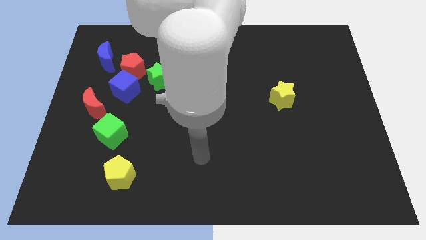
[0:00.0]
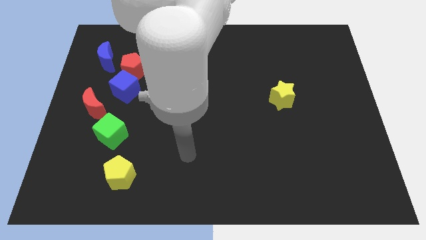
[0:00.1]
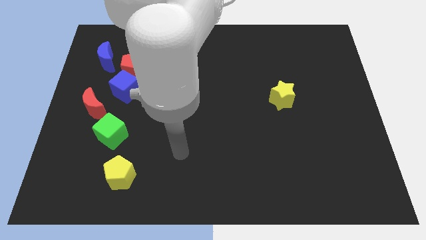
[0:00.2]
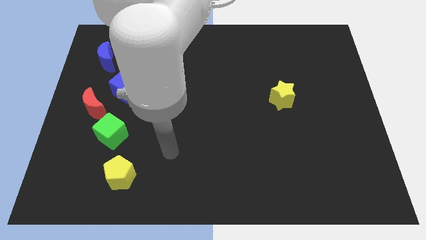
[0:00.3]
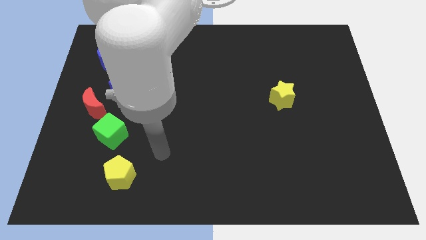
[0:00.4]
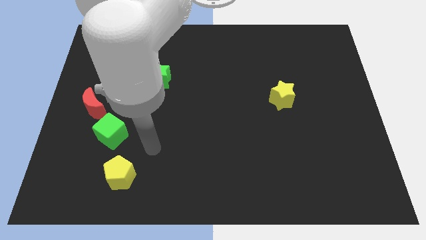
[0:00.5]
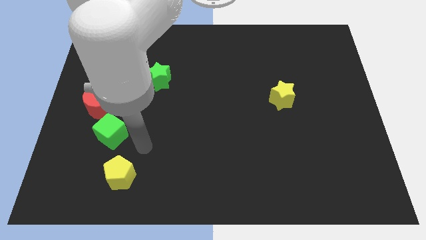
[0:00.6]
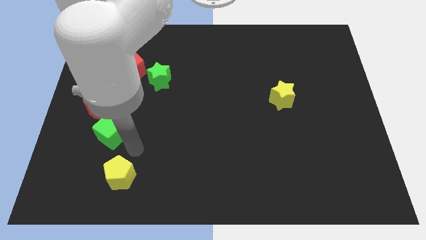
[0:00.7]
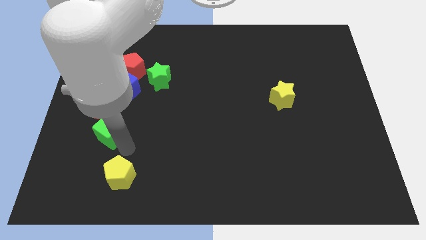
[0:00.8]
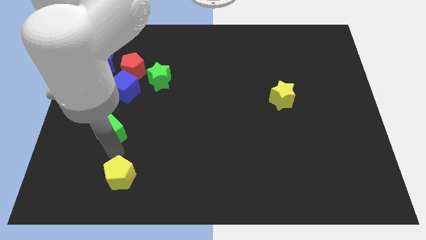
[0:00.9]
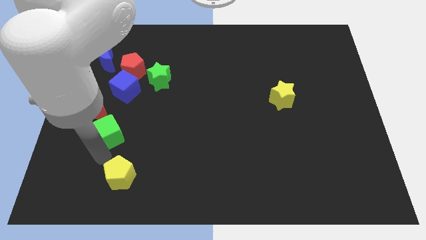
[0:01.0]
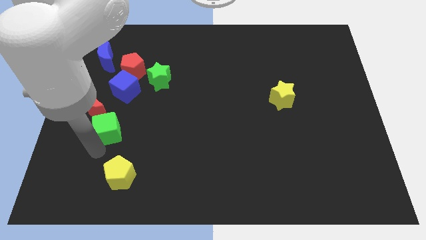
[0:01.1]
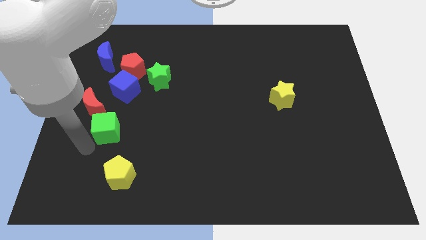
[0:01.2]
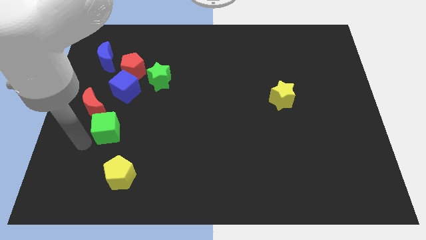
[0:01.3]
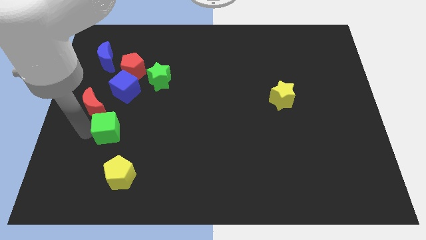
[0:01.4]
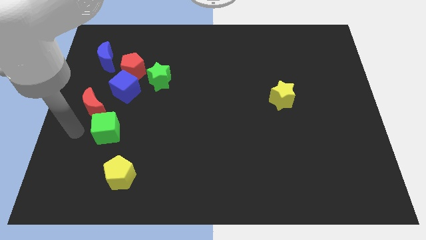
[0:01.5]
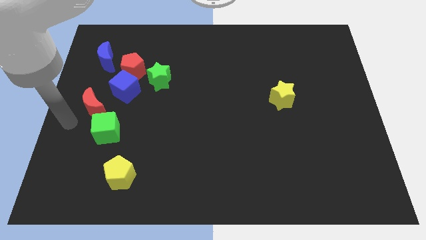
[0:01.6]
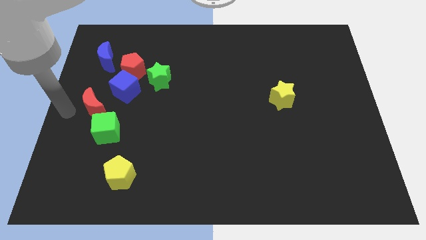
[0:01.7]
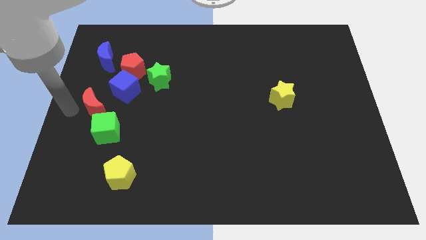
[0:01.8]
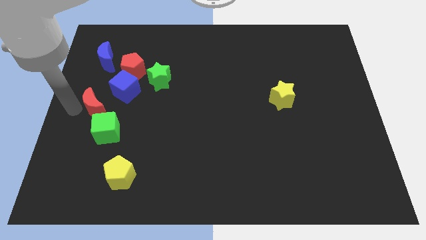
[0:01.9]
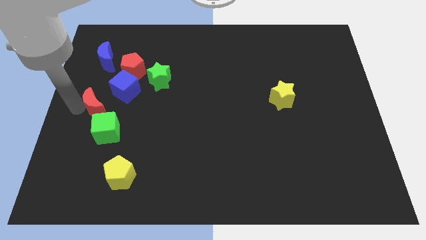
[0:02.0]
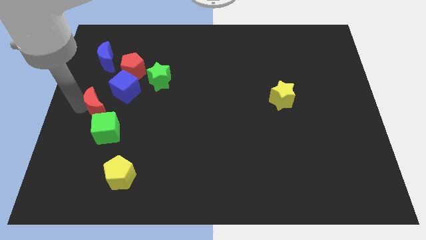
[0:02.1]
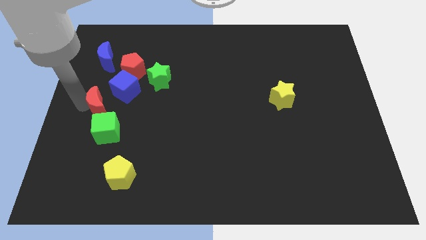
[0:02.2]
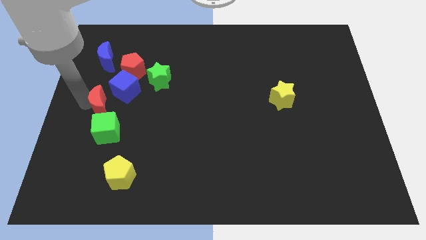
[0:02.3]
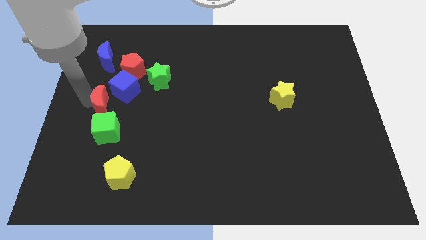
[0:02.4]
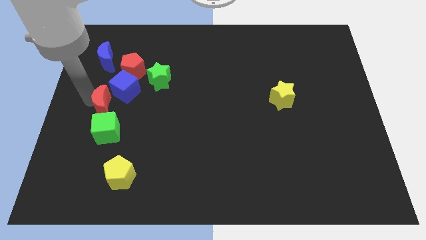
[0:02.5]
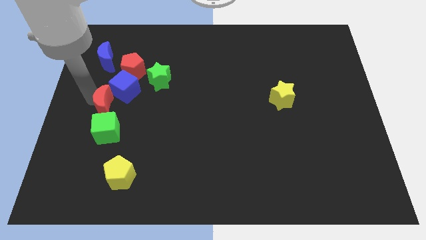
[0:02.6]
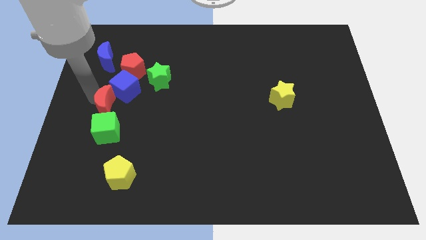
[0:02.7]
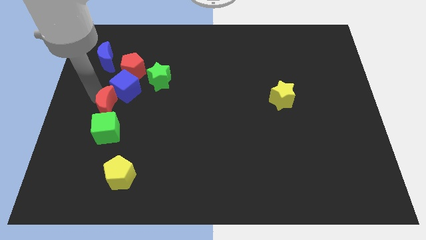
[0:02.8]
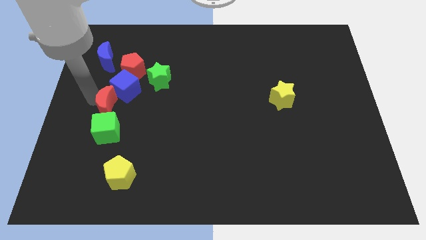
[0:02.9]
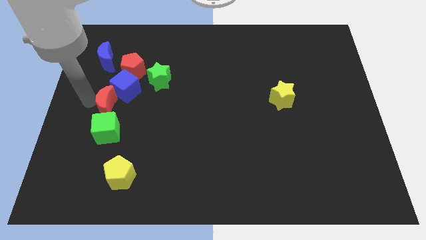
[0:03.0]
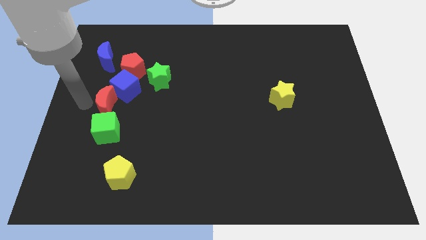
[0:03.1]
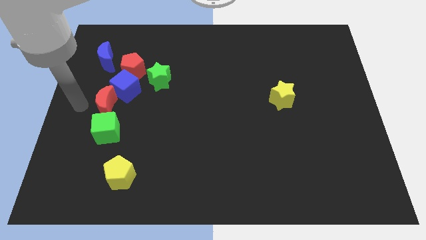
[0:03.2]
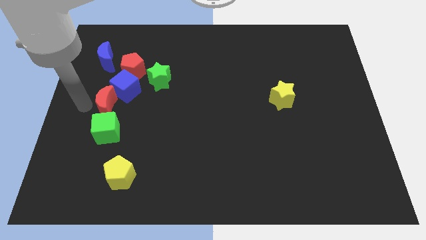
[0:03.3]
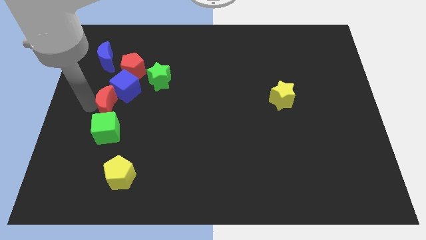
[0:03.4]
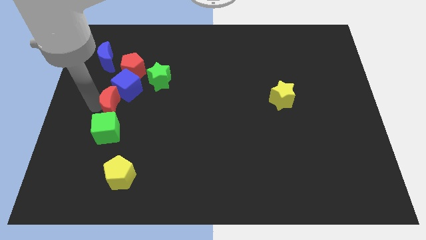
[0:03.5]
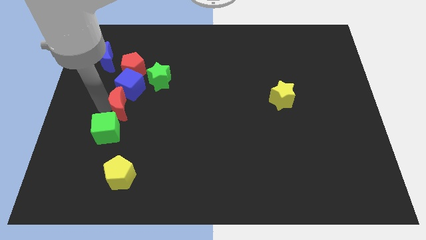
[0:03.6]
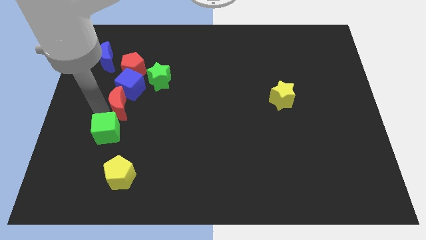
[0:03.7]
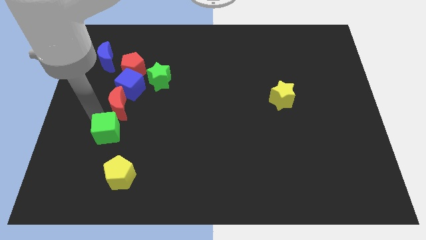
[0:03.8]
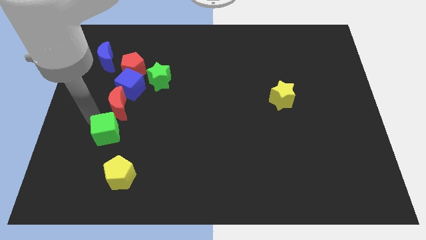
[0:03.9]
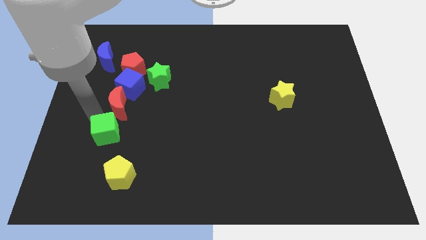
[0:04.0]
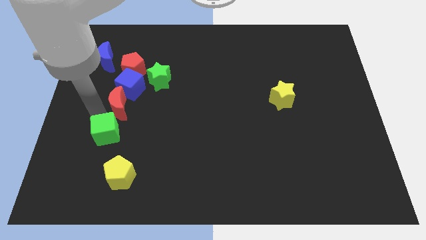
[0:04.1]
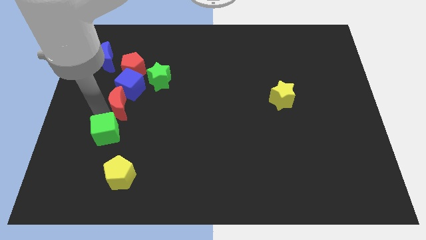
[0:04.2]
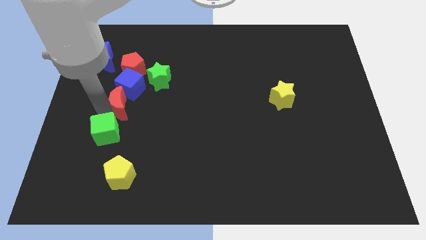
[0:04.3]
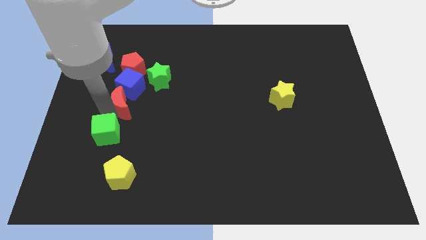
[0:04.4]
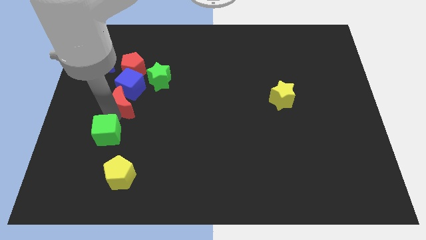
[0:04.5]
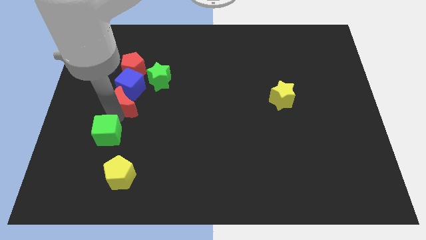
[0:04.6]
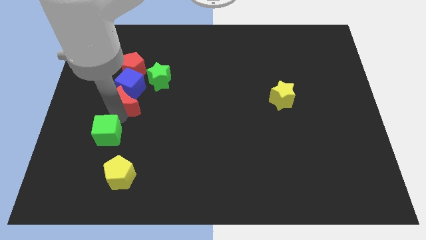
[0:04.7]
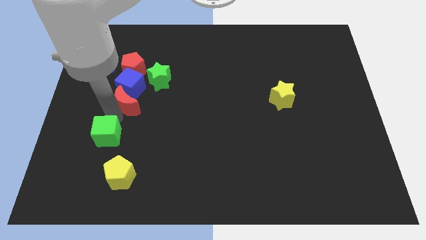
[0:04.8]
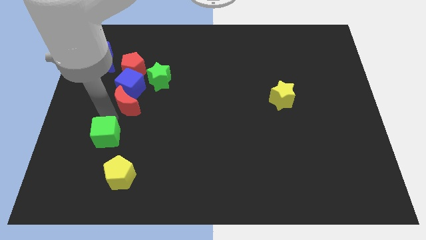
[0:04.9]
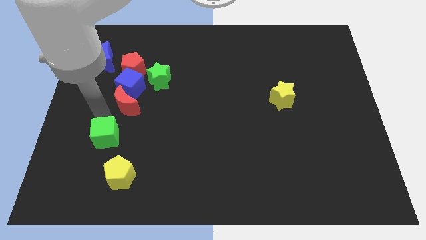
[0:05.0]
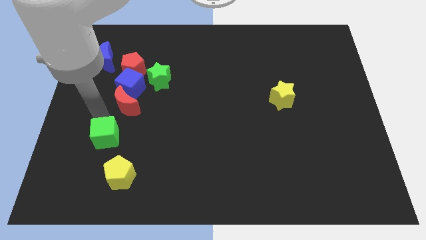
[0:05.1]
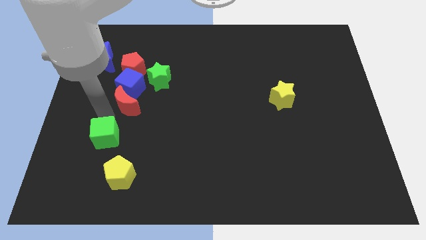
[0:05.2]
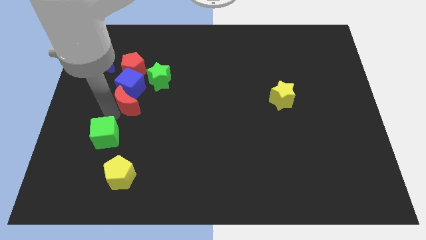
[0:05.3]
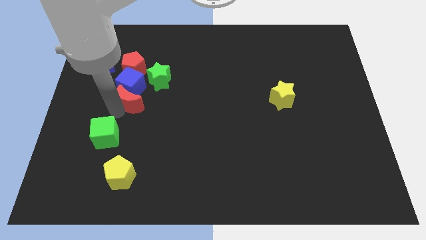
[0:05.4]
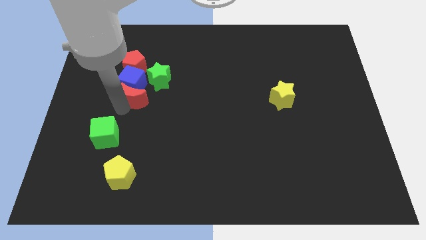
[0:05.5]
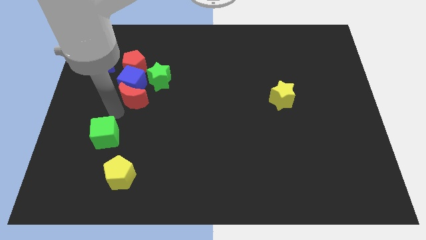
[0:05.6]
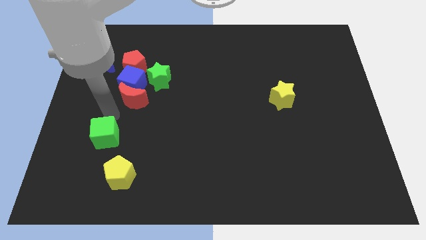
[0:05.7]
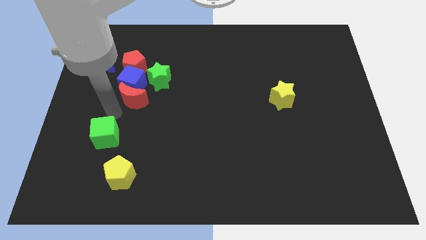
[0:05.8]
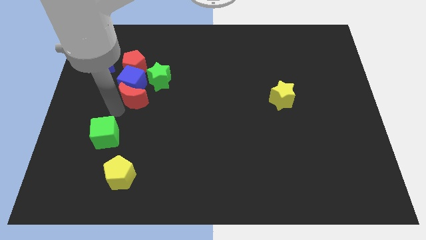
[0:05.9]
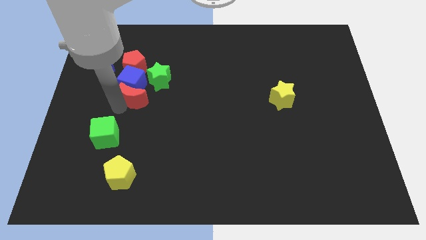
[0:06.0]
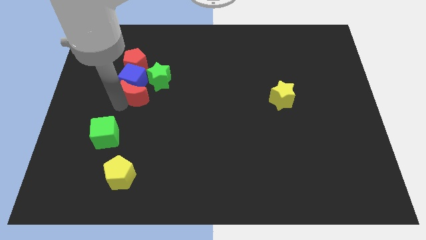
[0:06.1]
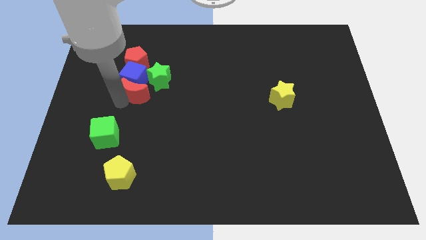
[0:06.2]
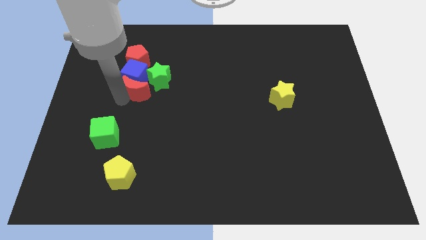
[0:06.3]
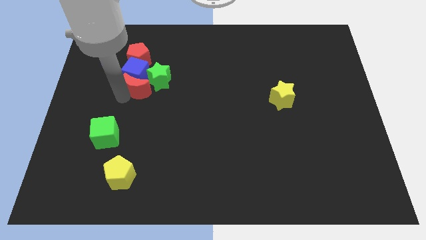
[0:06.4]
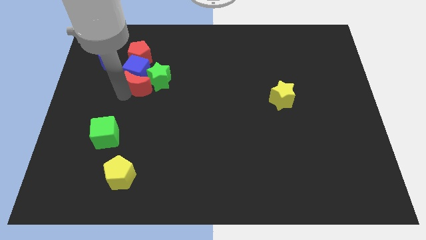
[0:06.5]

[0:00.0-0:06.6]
move the red moon to the green star

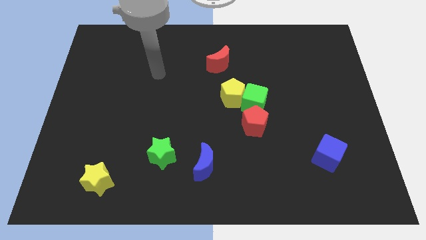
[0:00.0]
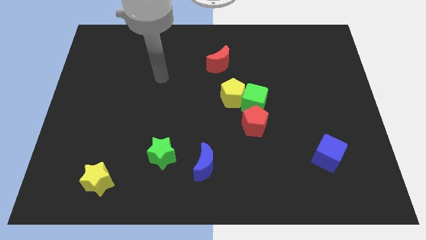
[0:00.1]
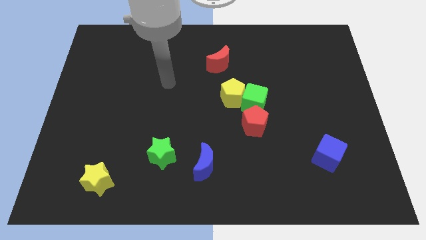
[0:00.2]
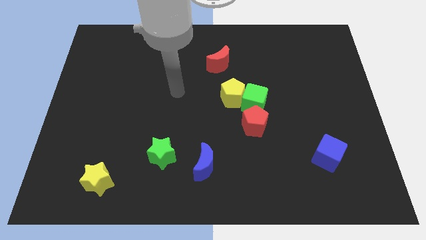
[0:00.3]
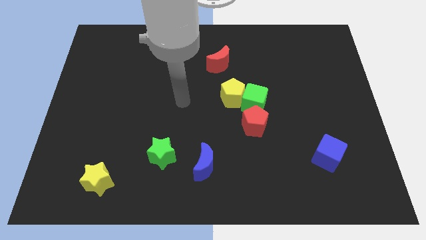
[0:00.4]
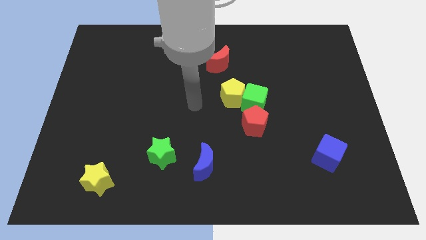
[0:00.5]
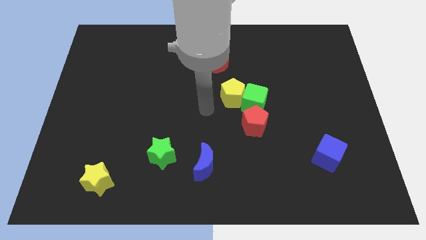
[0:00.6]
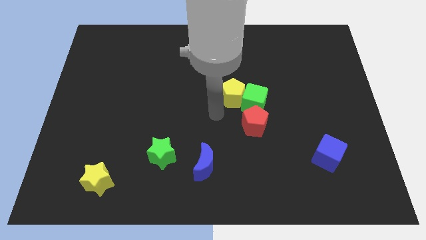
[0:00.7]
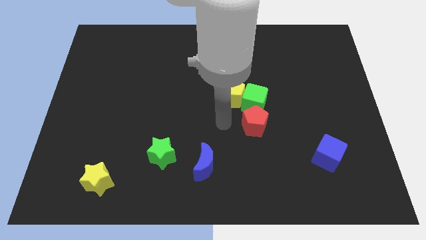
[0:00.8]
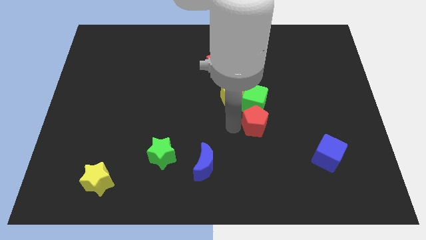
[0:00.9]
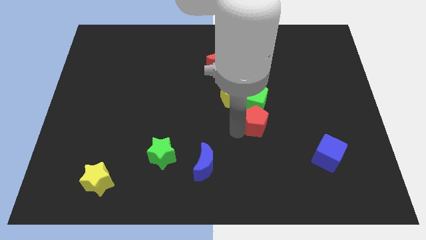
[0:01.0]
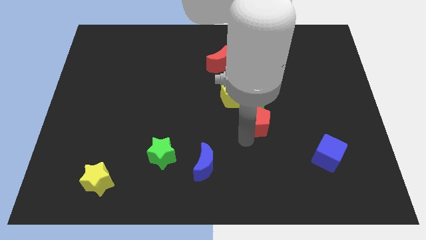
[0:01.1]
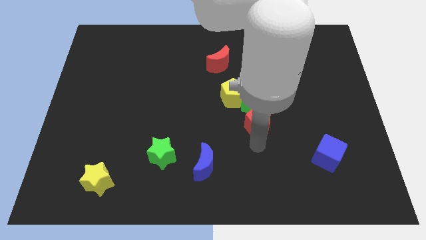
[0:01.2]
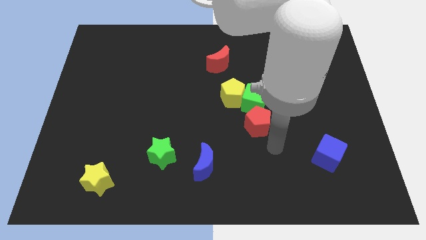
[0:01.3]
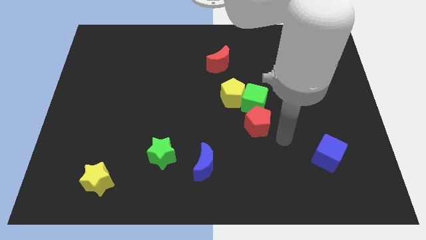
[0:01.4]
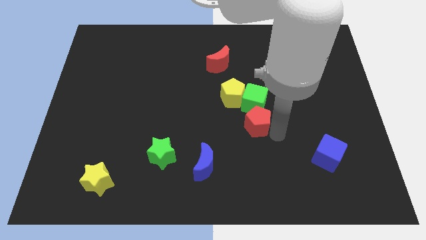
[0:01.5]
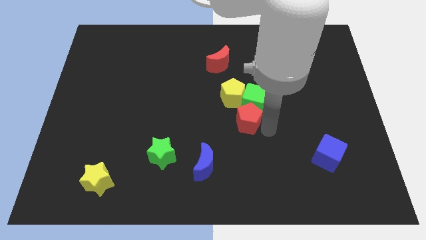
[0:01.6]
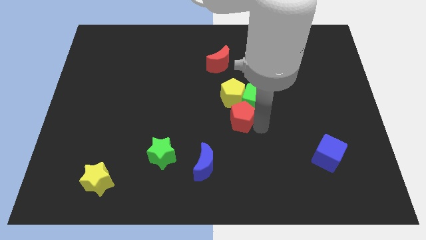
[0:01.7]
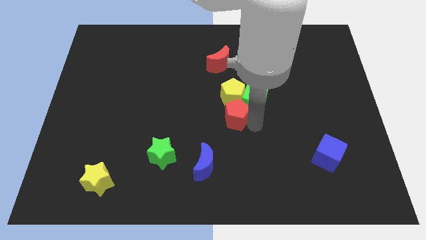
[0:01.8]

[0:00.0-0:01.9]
put the red pentagon to the yellow pentagon
